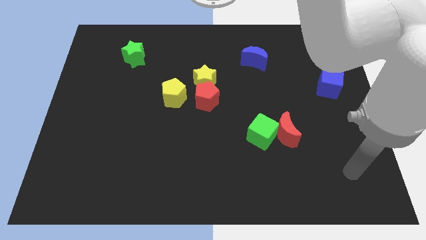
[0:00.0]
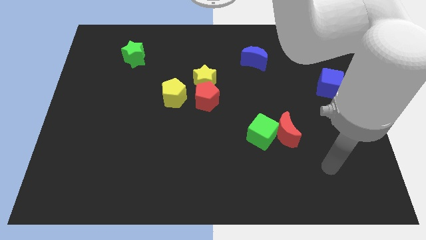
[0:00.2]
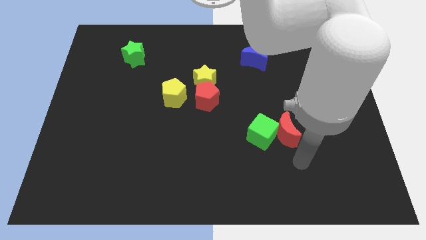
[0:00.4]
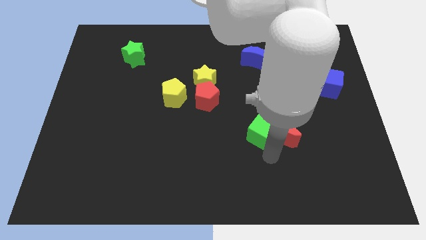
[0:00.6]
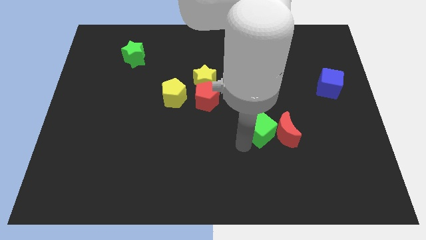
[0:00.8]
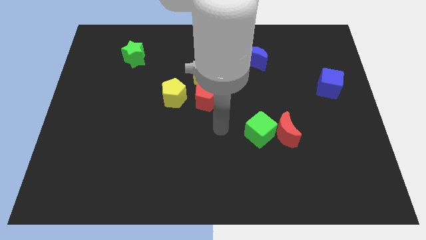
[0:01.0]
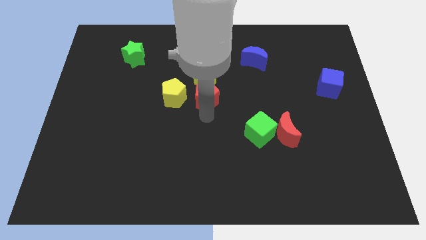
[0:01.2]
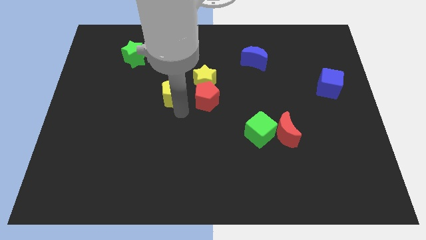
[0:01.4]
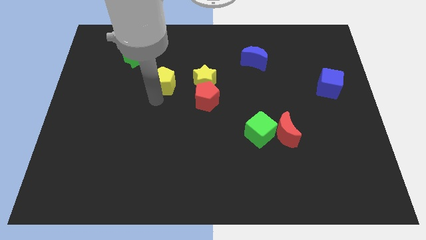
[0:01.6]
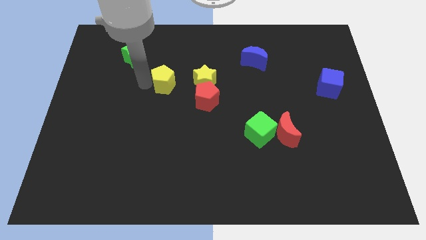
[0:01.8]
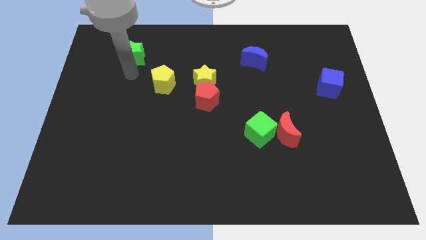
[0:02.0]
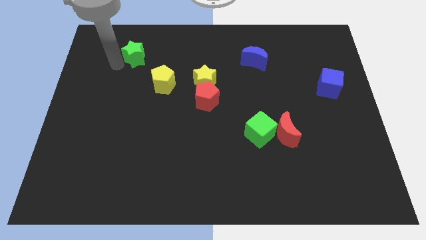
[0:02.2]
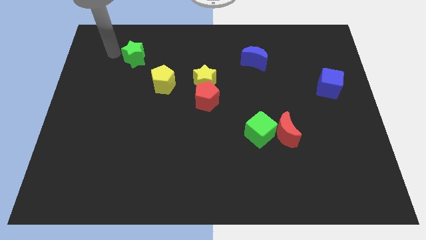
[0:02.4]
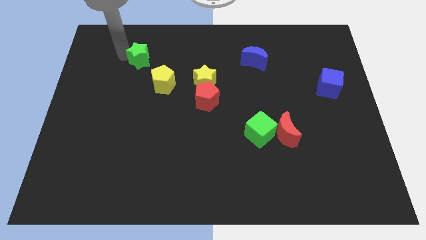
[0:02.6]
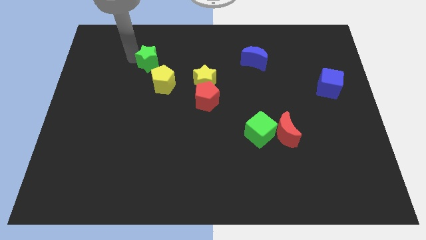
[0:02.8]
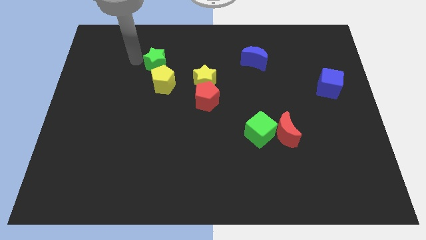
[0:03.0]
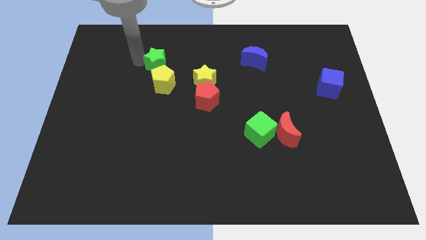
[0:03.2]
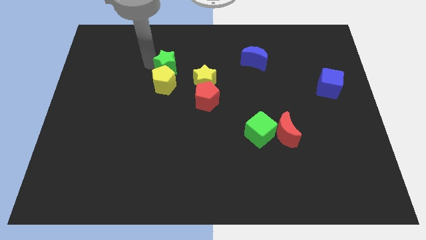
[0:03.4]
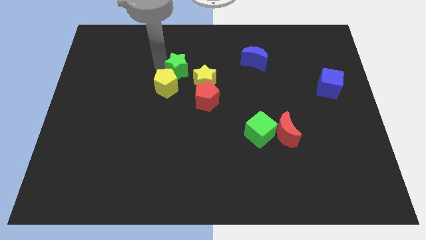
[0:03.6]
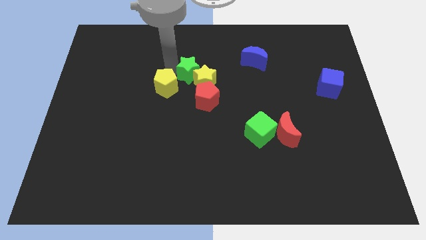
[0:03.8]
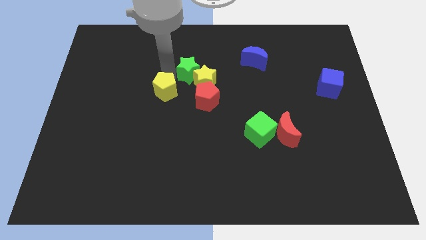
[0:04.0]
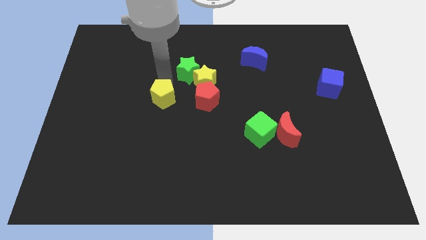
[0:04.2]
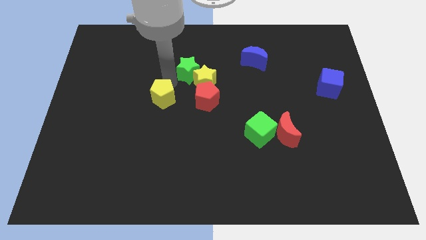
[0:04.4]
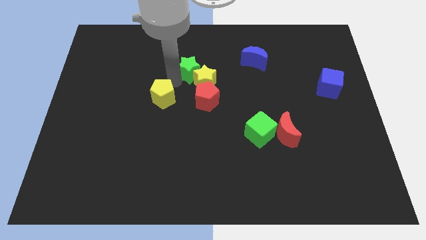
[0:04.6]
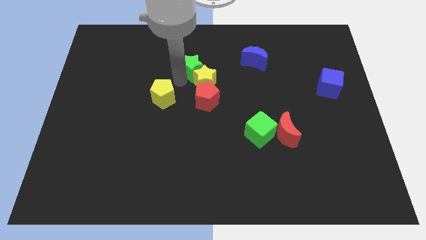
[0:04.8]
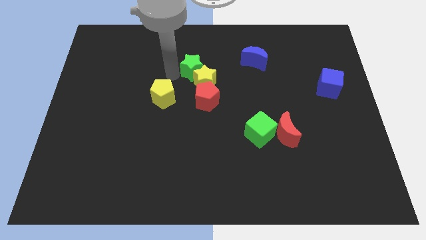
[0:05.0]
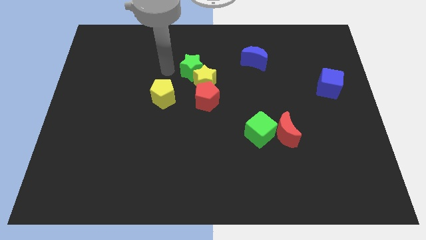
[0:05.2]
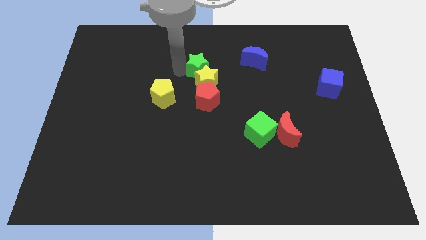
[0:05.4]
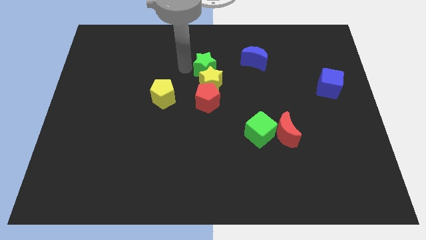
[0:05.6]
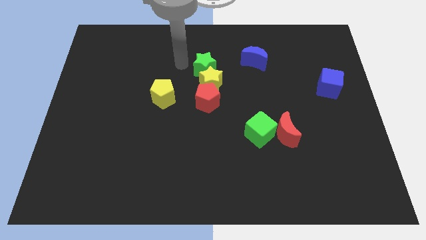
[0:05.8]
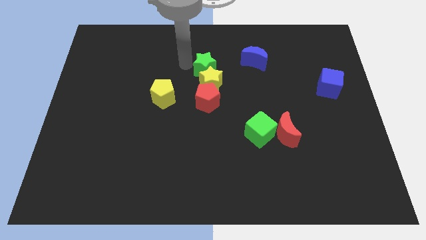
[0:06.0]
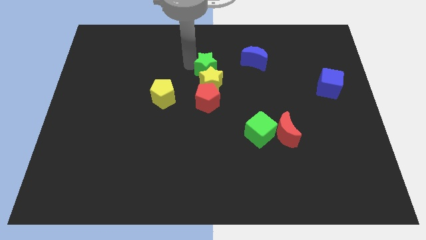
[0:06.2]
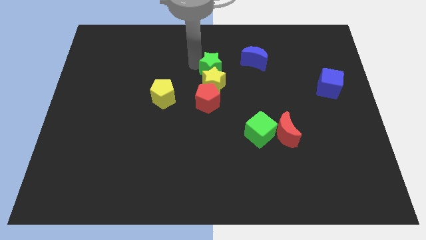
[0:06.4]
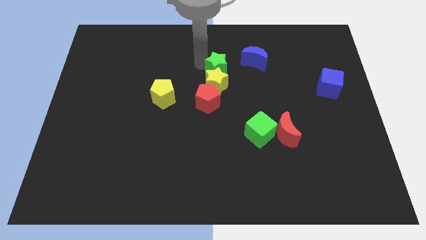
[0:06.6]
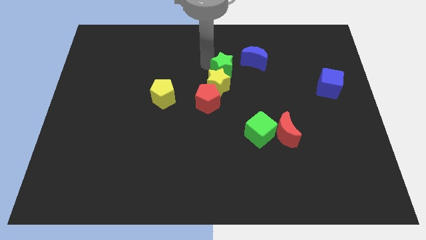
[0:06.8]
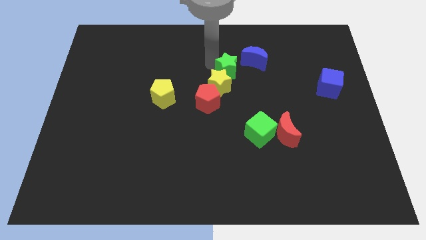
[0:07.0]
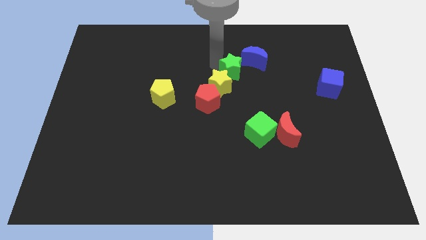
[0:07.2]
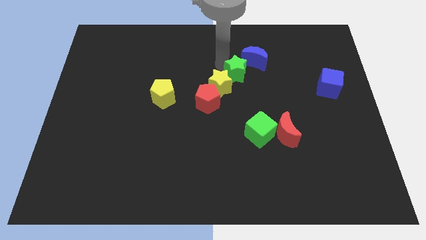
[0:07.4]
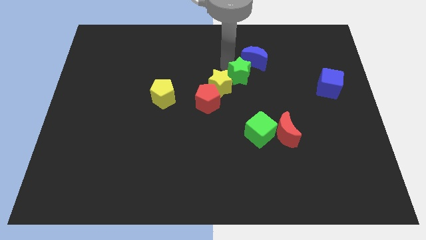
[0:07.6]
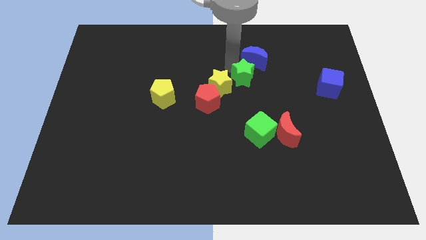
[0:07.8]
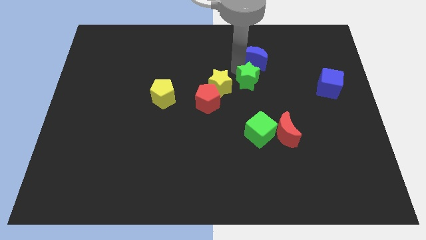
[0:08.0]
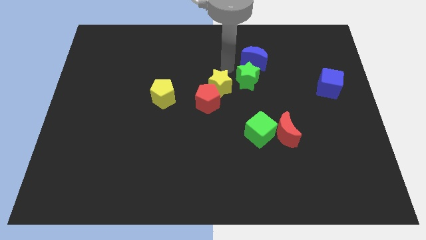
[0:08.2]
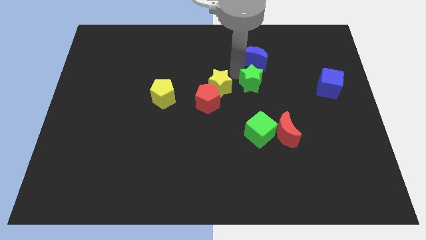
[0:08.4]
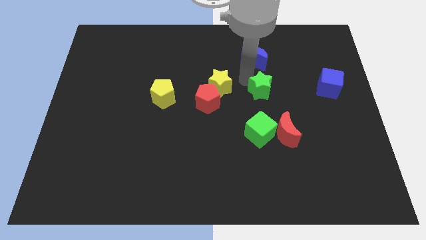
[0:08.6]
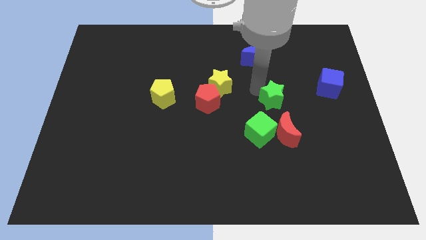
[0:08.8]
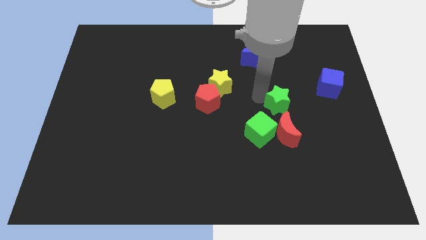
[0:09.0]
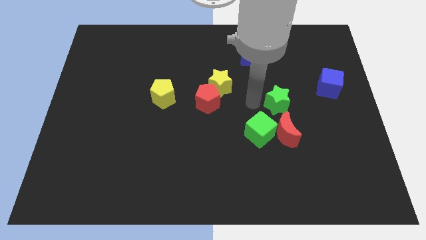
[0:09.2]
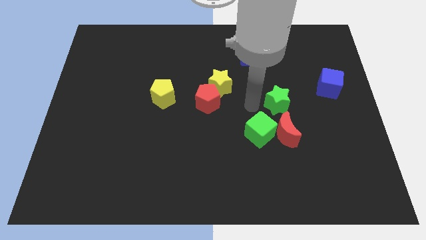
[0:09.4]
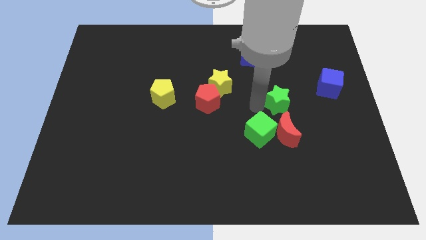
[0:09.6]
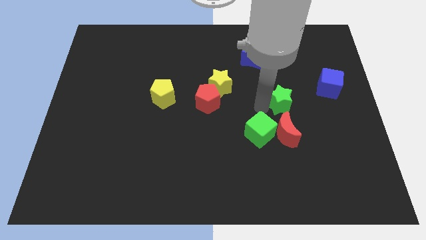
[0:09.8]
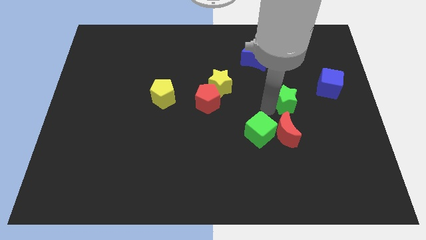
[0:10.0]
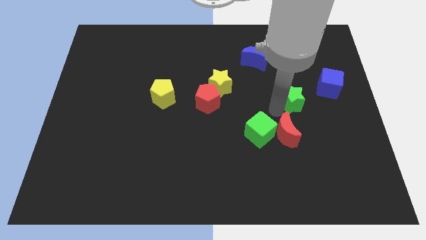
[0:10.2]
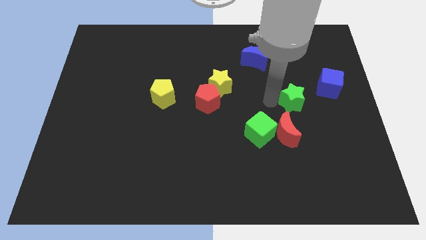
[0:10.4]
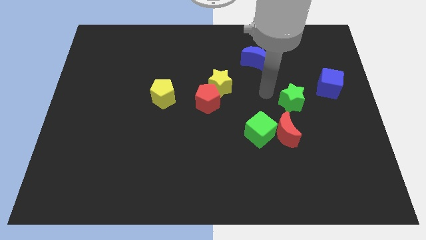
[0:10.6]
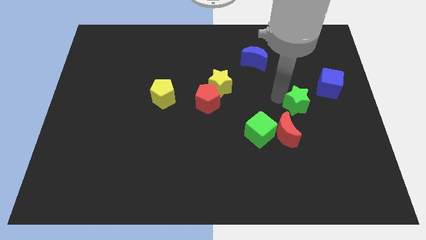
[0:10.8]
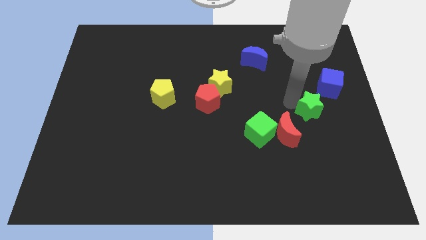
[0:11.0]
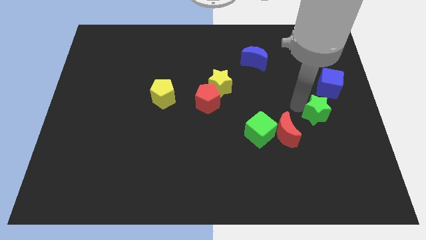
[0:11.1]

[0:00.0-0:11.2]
put the green star to the bottom side of the blue cube
